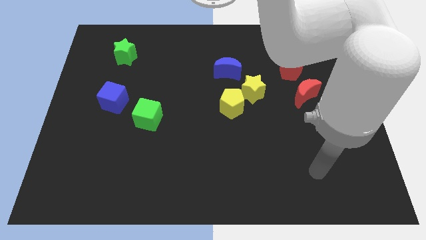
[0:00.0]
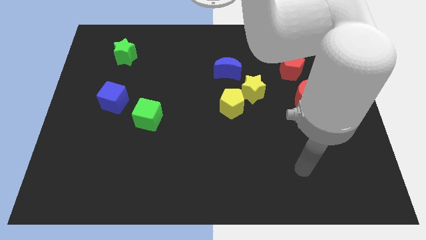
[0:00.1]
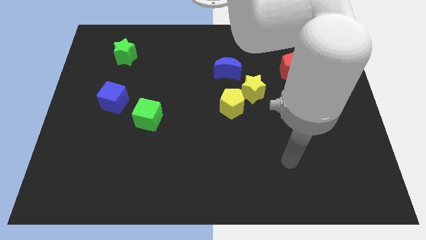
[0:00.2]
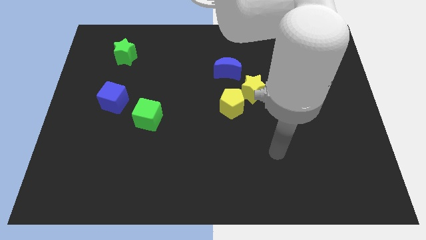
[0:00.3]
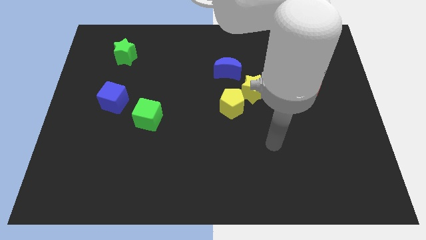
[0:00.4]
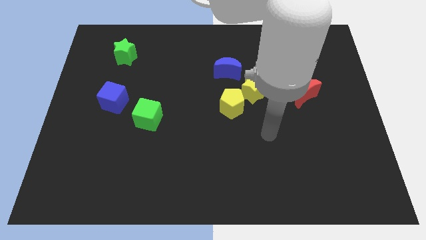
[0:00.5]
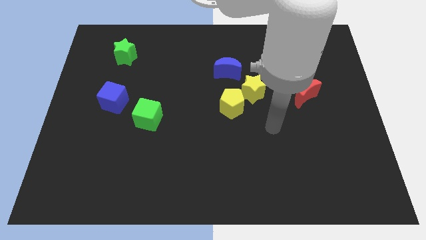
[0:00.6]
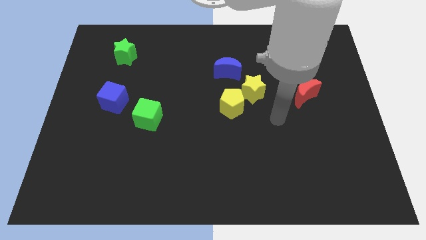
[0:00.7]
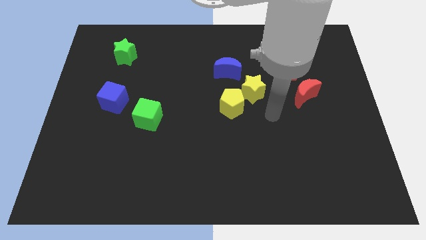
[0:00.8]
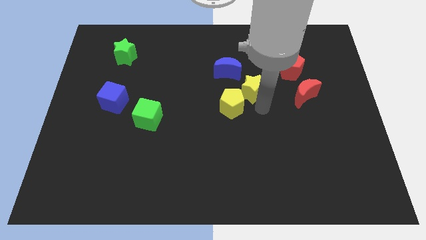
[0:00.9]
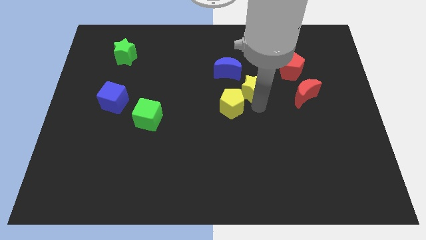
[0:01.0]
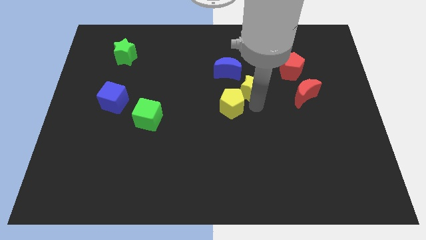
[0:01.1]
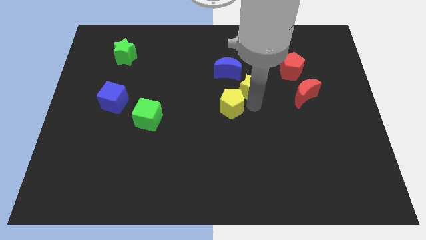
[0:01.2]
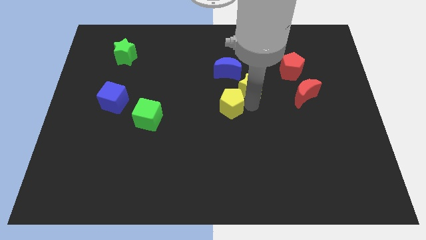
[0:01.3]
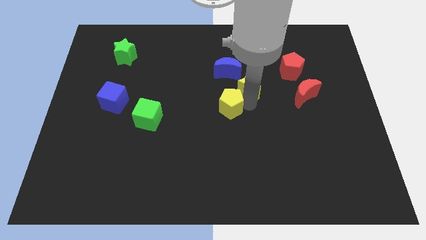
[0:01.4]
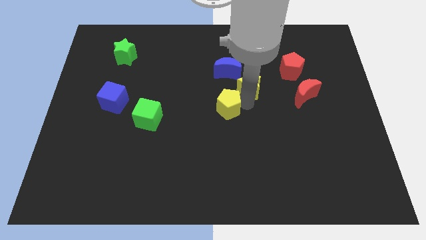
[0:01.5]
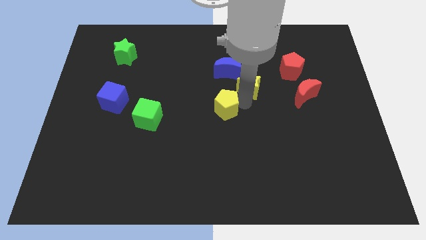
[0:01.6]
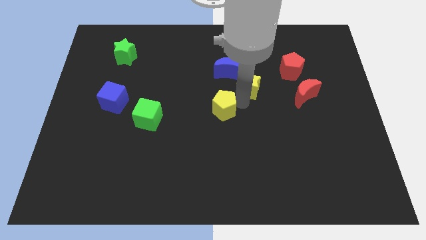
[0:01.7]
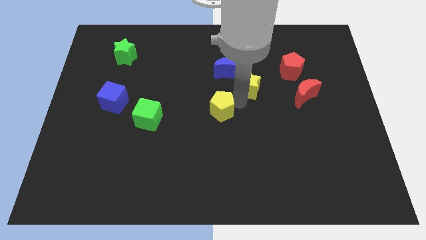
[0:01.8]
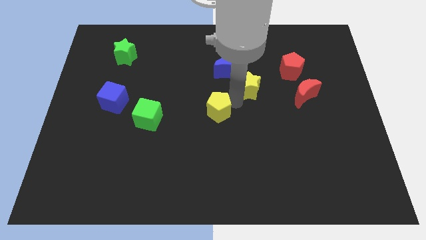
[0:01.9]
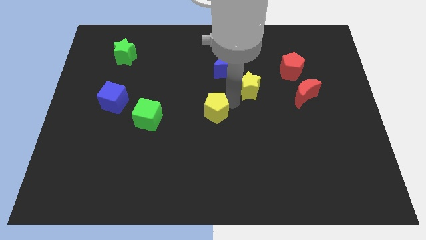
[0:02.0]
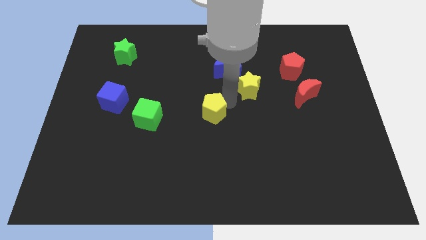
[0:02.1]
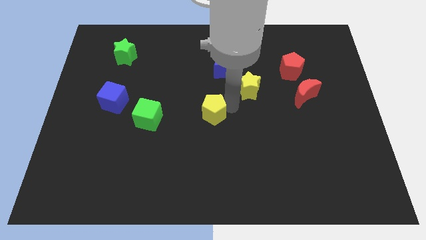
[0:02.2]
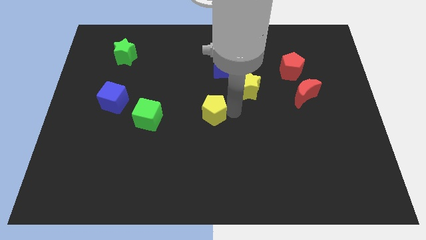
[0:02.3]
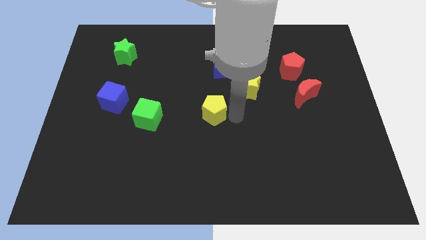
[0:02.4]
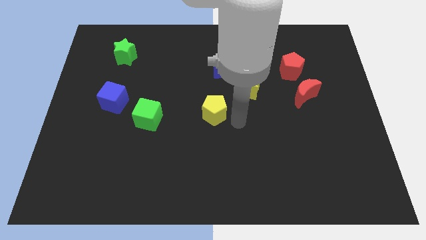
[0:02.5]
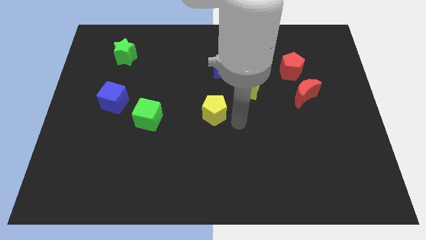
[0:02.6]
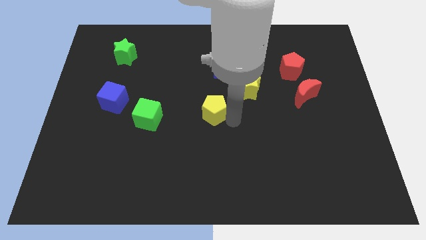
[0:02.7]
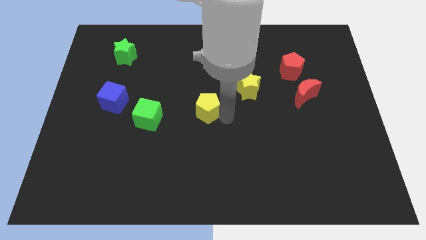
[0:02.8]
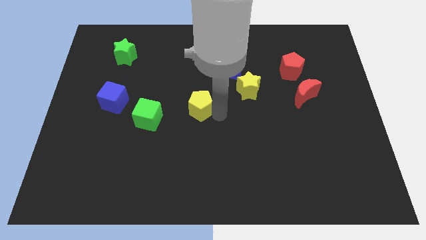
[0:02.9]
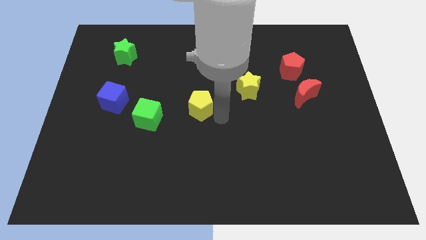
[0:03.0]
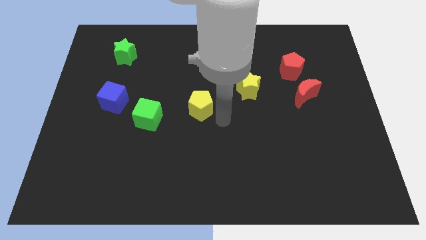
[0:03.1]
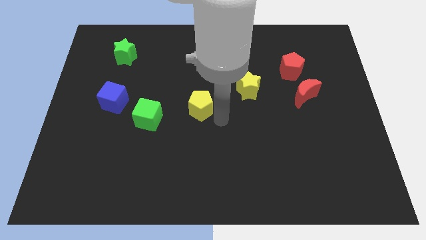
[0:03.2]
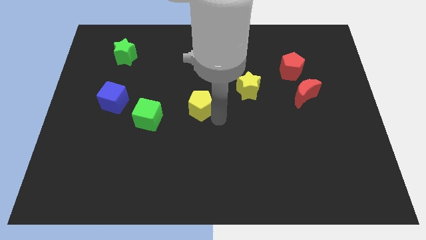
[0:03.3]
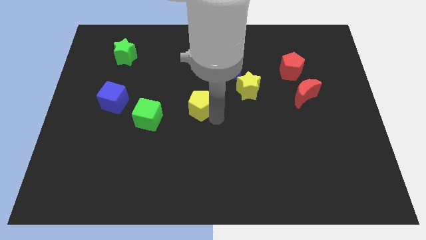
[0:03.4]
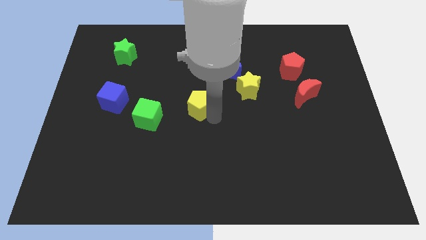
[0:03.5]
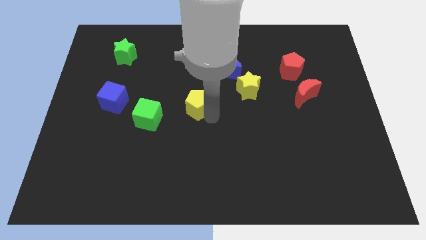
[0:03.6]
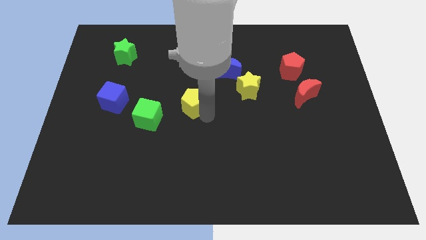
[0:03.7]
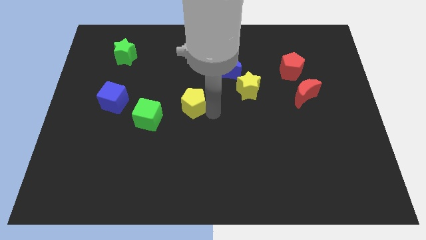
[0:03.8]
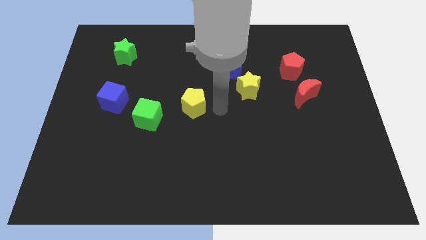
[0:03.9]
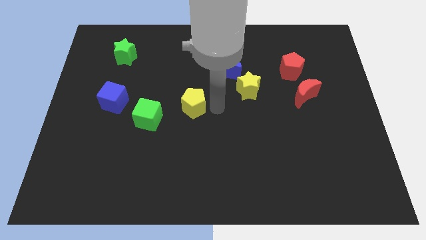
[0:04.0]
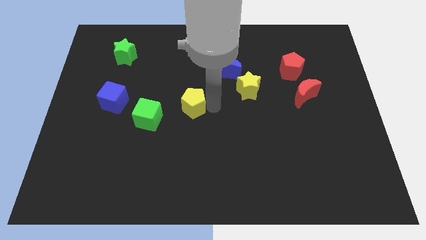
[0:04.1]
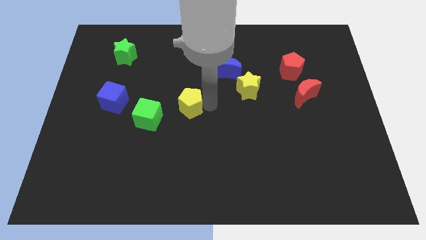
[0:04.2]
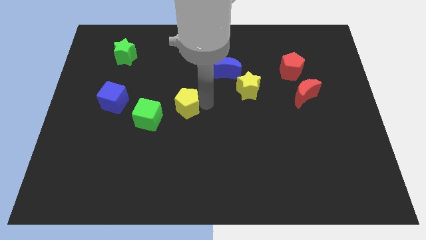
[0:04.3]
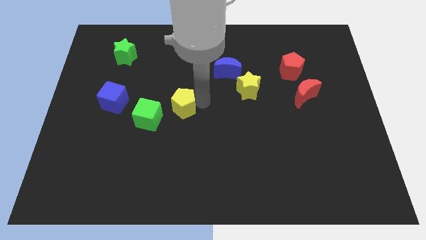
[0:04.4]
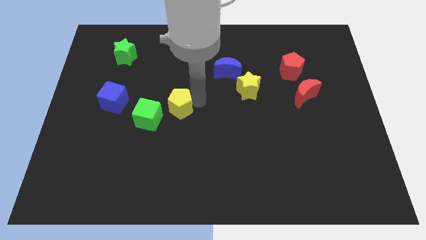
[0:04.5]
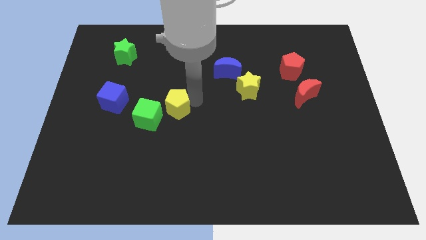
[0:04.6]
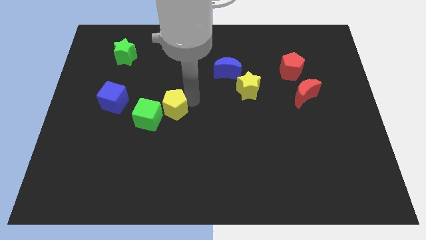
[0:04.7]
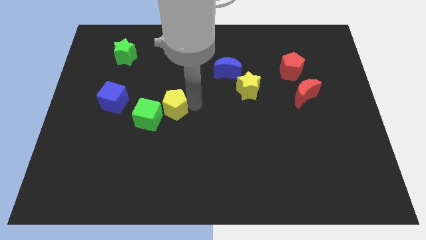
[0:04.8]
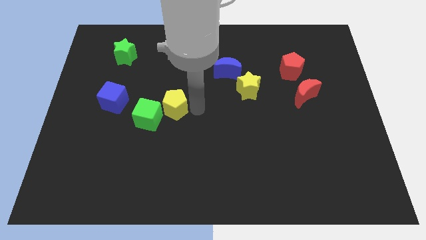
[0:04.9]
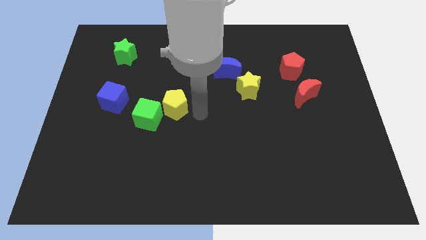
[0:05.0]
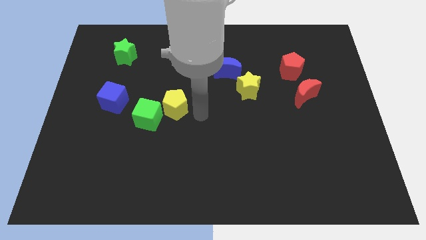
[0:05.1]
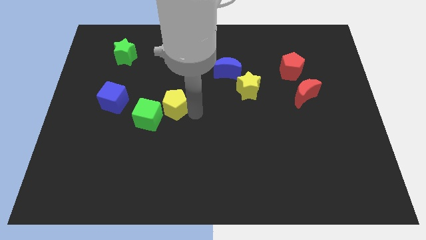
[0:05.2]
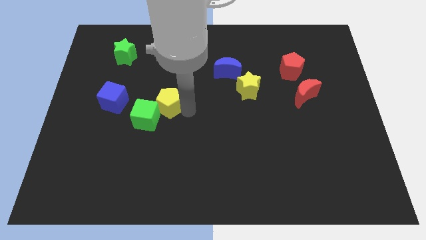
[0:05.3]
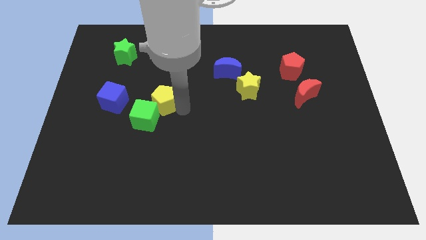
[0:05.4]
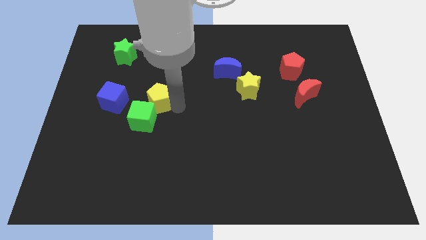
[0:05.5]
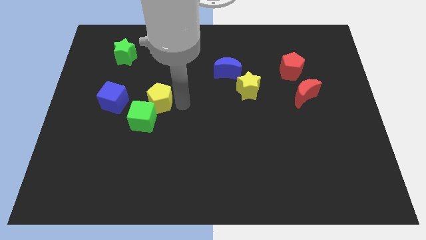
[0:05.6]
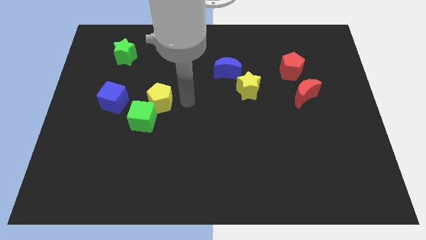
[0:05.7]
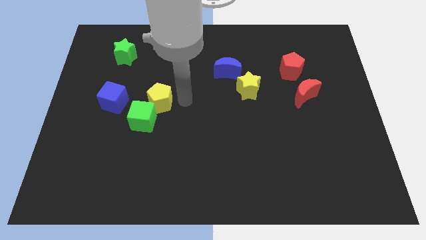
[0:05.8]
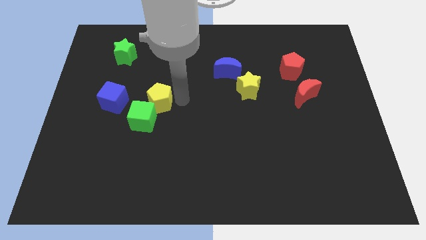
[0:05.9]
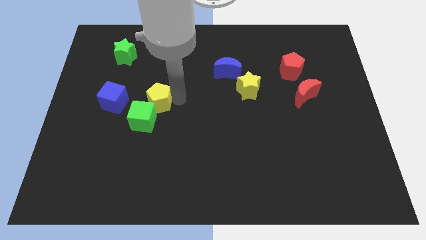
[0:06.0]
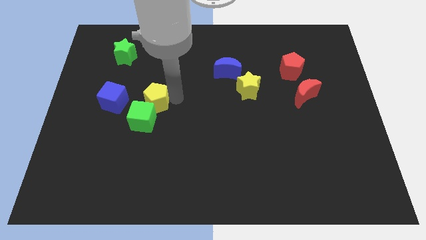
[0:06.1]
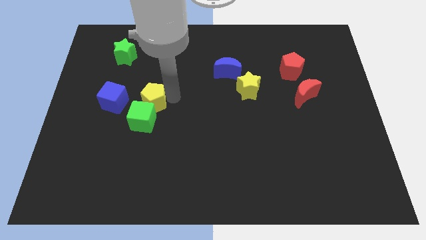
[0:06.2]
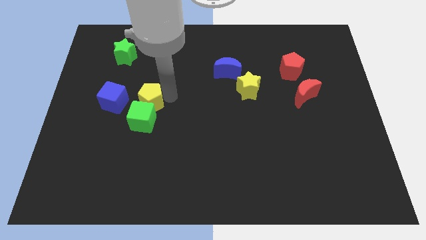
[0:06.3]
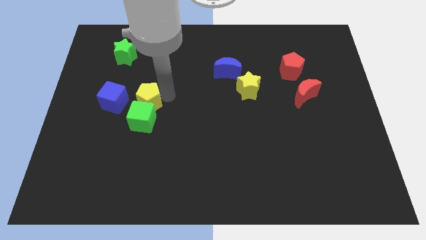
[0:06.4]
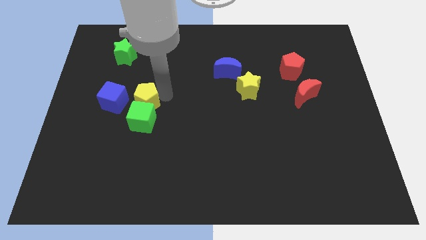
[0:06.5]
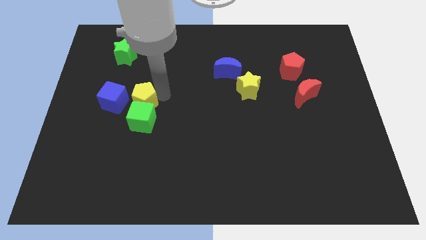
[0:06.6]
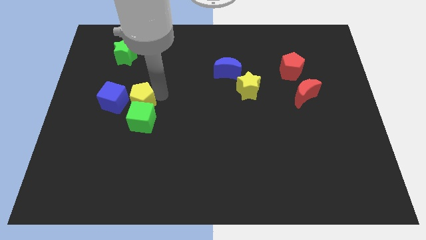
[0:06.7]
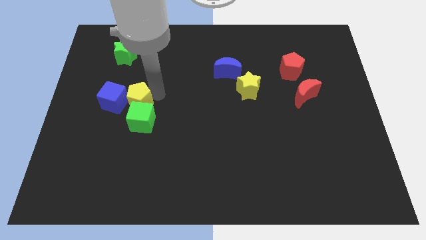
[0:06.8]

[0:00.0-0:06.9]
slide the yellow pentagon close to the blue cube

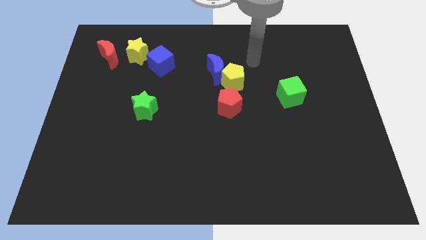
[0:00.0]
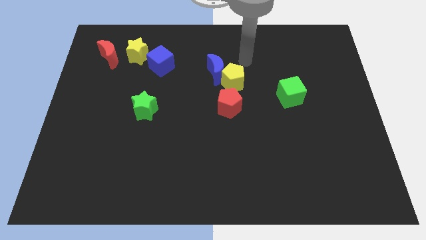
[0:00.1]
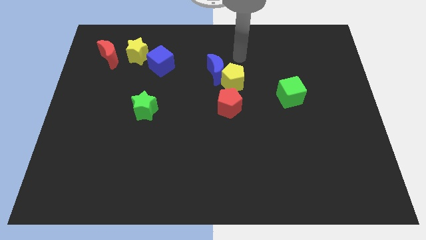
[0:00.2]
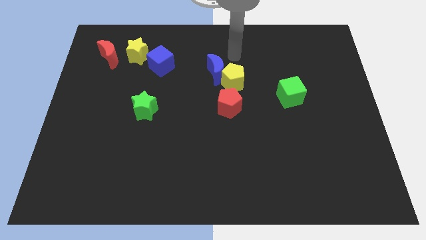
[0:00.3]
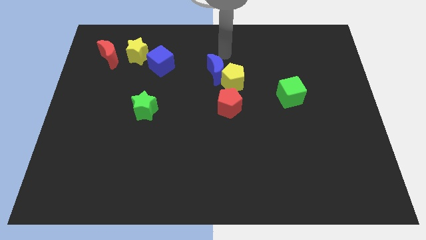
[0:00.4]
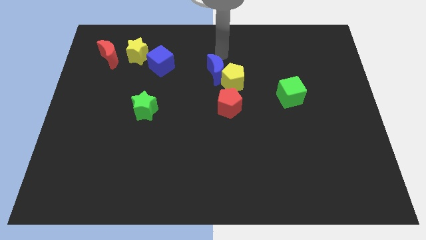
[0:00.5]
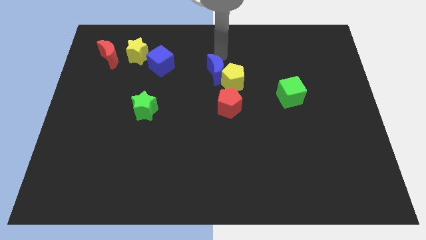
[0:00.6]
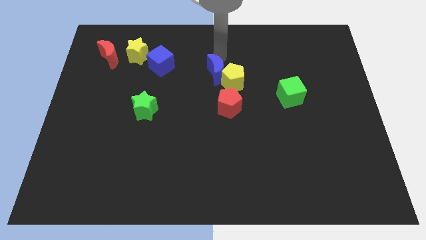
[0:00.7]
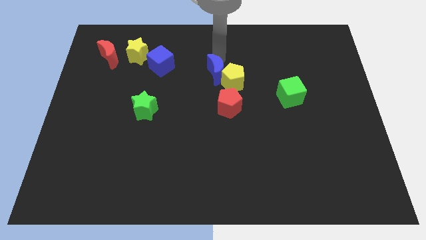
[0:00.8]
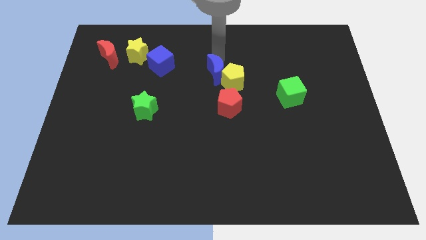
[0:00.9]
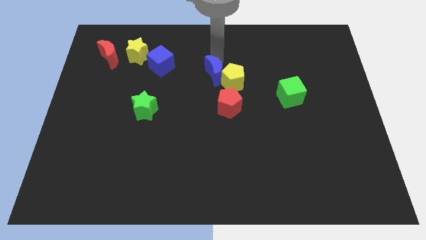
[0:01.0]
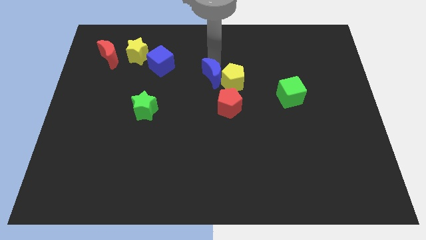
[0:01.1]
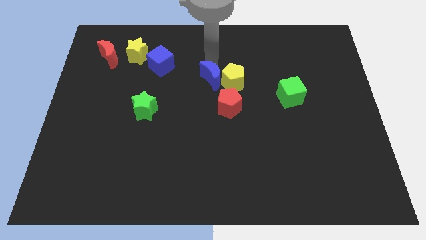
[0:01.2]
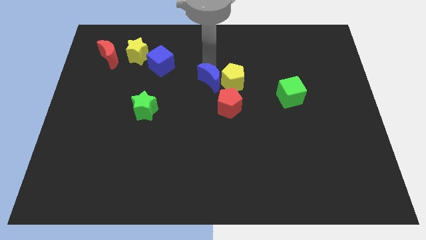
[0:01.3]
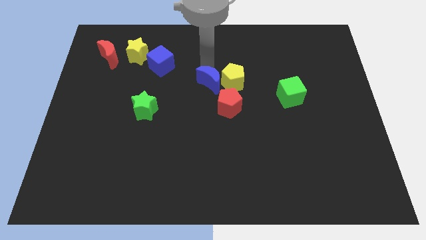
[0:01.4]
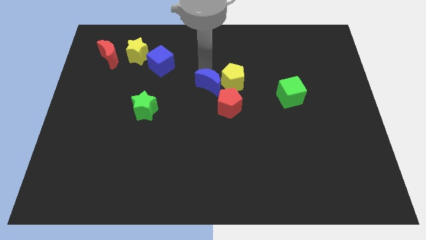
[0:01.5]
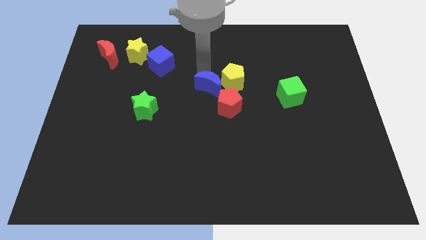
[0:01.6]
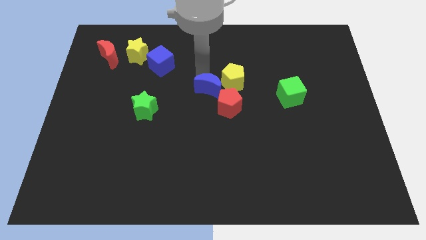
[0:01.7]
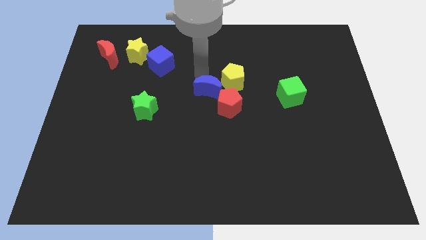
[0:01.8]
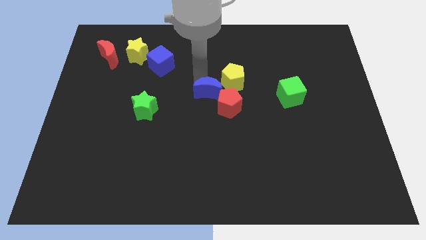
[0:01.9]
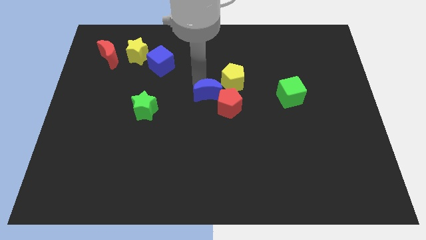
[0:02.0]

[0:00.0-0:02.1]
push the blue moon next to the red pentagon
